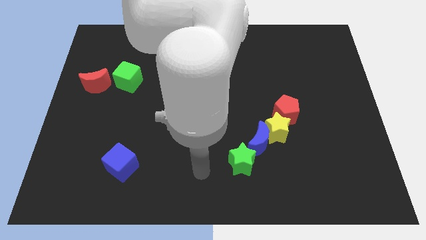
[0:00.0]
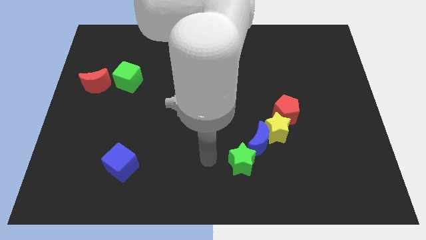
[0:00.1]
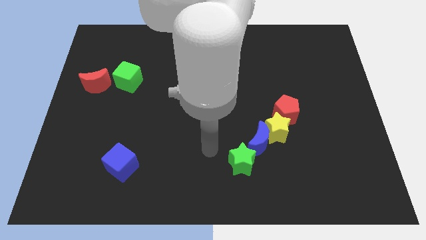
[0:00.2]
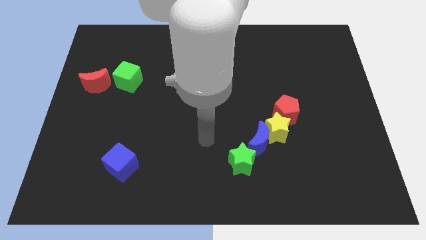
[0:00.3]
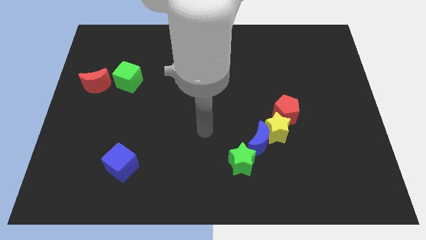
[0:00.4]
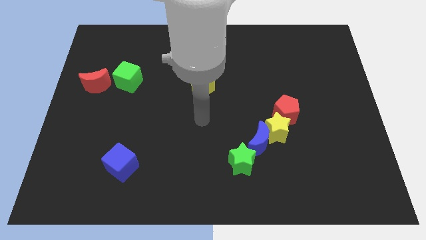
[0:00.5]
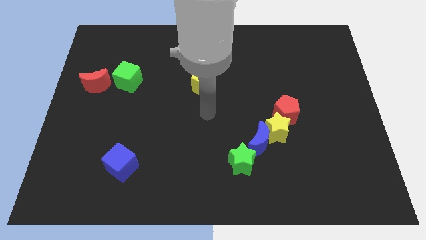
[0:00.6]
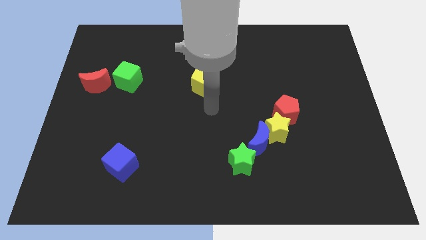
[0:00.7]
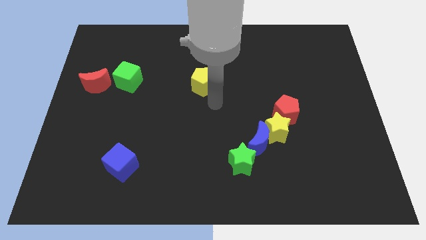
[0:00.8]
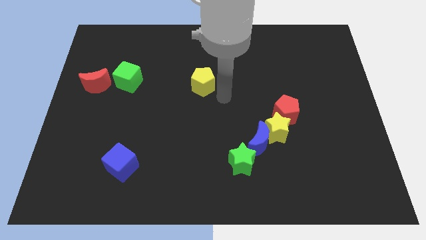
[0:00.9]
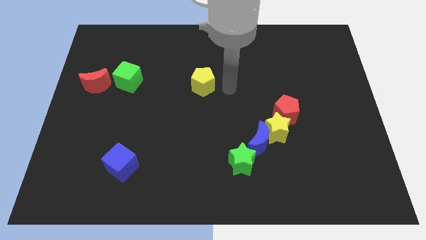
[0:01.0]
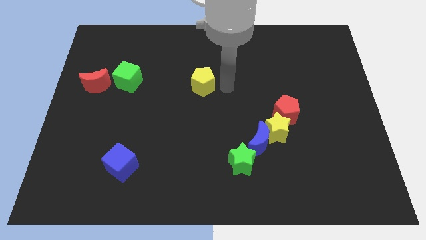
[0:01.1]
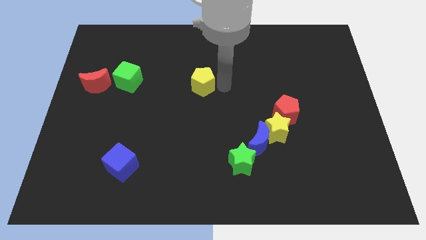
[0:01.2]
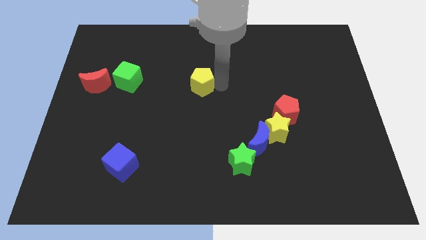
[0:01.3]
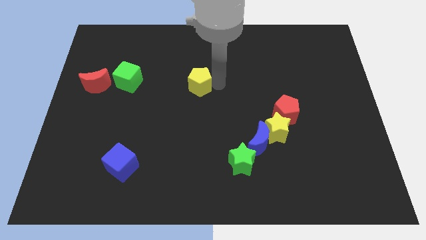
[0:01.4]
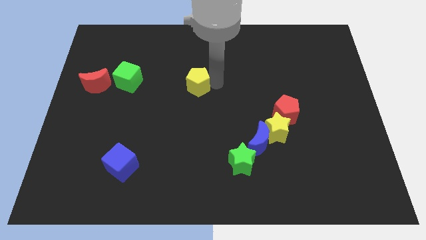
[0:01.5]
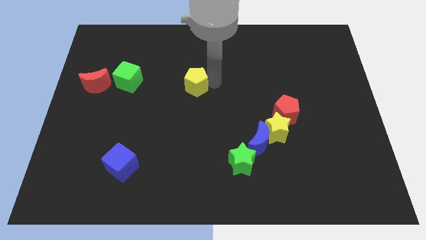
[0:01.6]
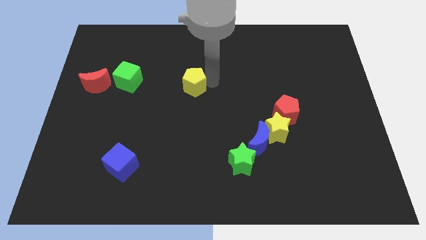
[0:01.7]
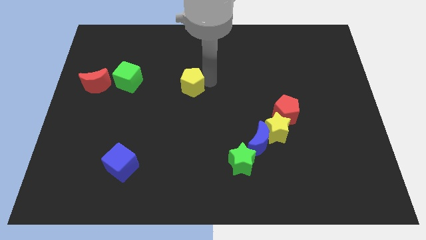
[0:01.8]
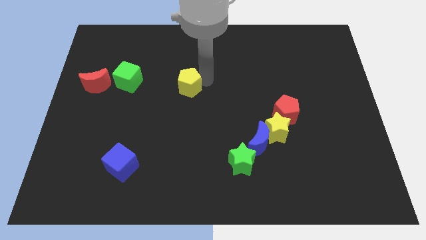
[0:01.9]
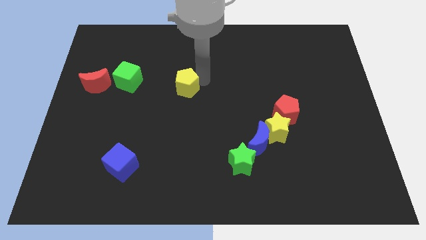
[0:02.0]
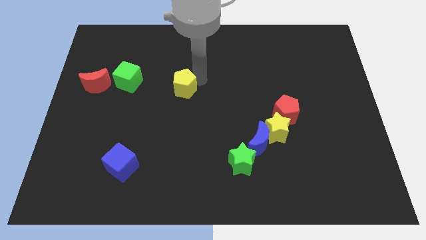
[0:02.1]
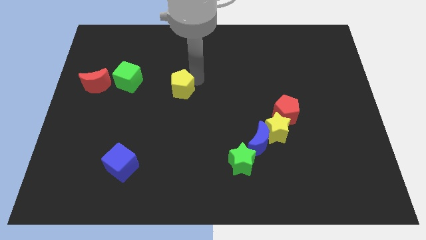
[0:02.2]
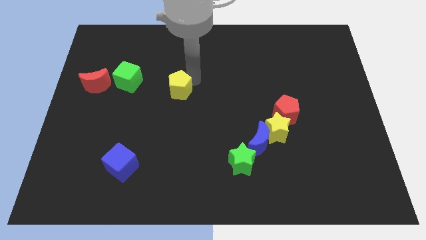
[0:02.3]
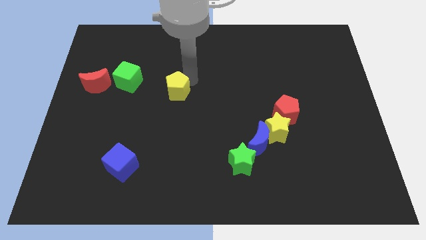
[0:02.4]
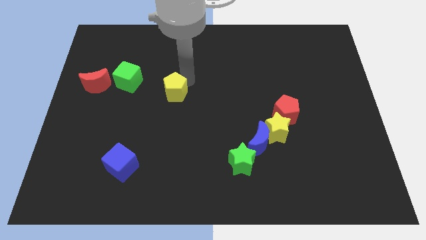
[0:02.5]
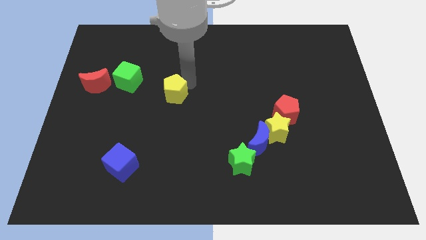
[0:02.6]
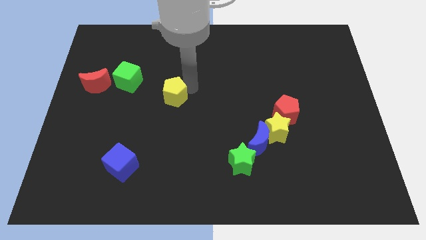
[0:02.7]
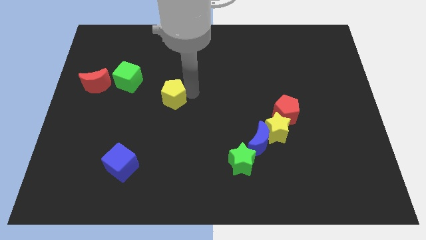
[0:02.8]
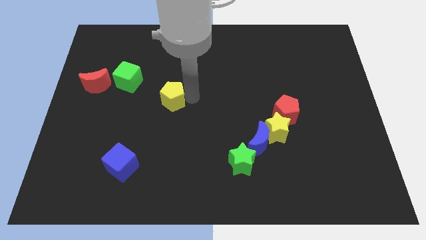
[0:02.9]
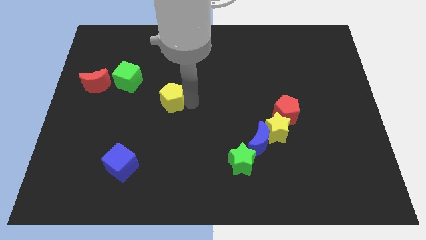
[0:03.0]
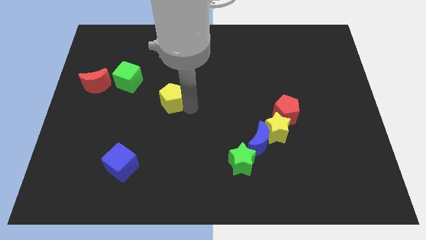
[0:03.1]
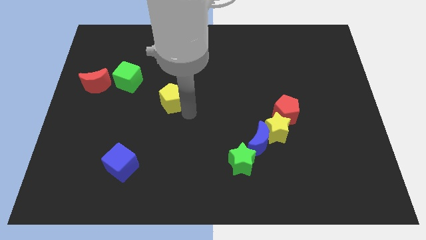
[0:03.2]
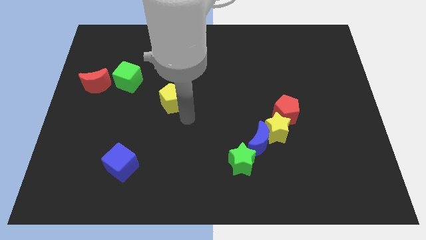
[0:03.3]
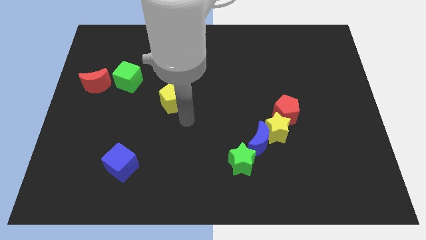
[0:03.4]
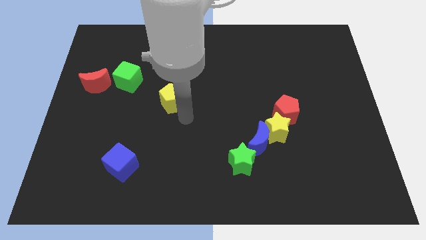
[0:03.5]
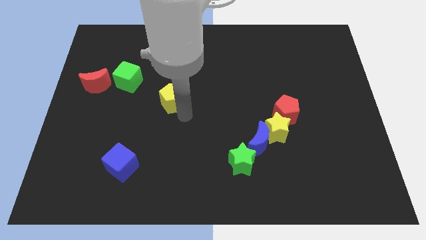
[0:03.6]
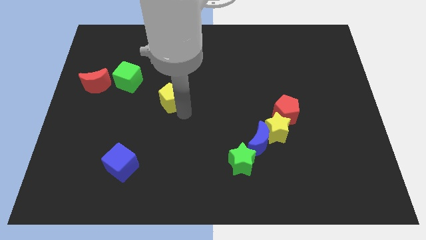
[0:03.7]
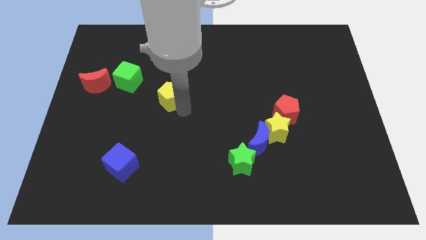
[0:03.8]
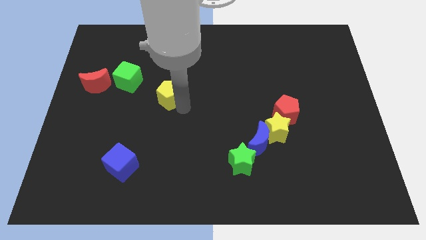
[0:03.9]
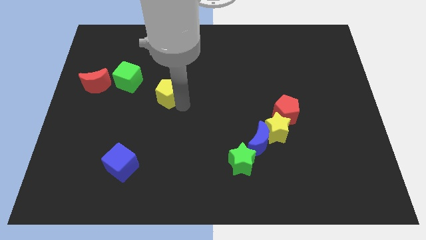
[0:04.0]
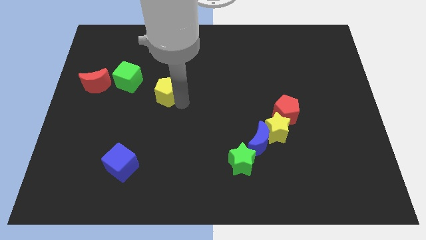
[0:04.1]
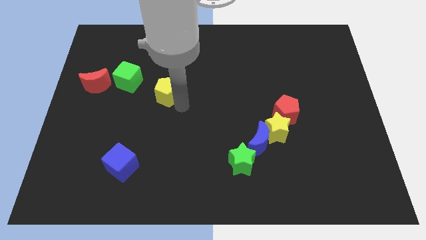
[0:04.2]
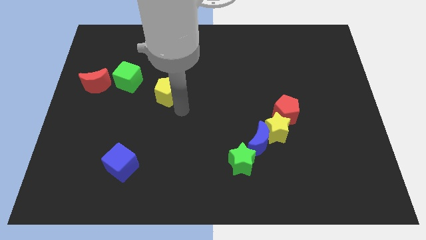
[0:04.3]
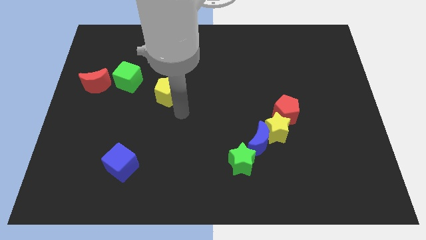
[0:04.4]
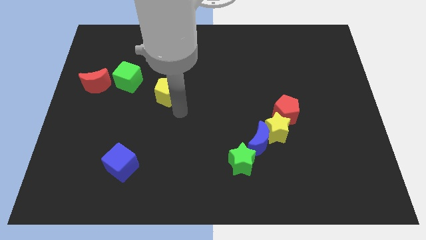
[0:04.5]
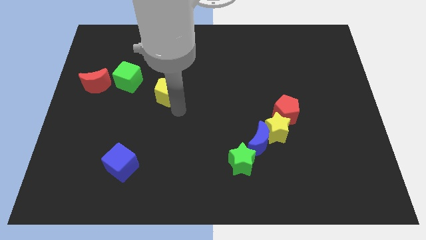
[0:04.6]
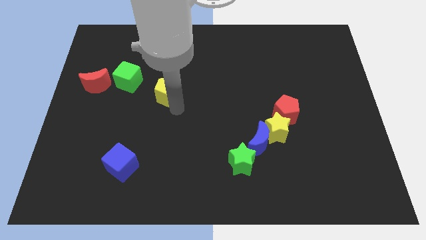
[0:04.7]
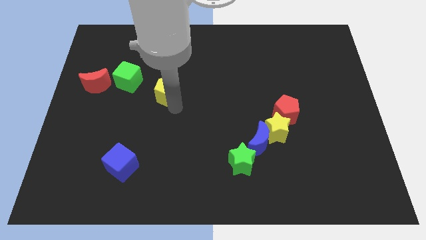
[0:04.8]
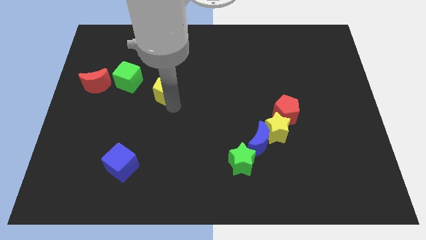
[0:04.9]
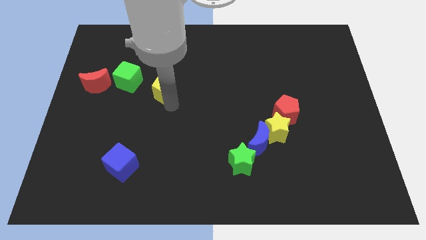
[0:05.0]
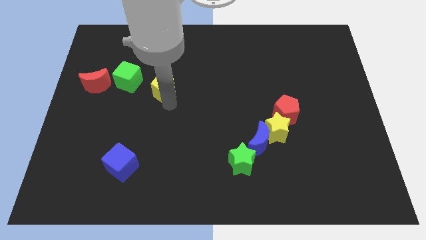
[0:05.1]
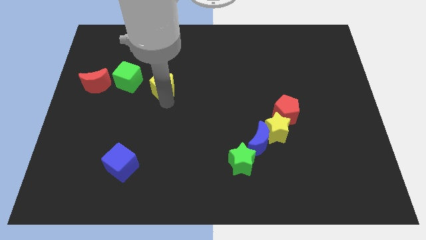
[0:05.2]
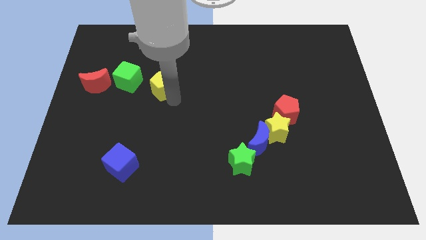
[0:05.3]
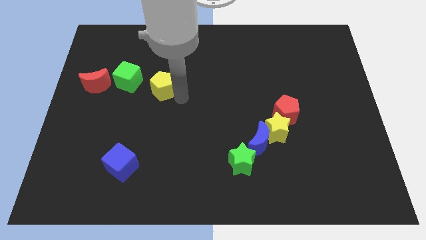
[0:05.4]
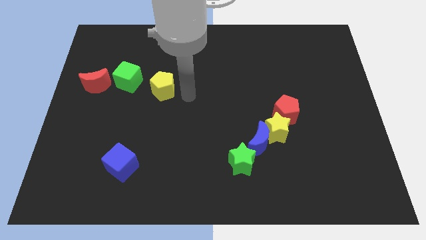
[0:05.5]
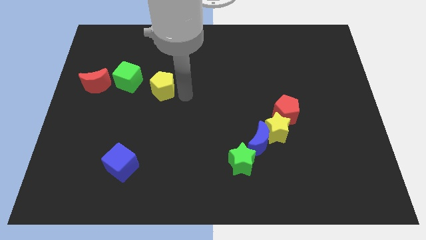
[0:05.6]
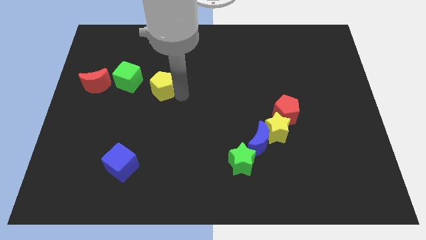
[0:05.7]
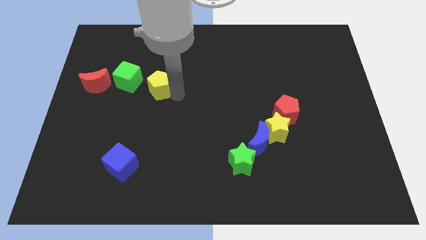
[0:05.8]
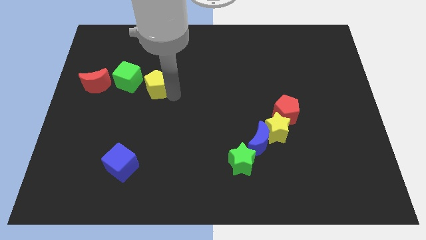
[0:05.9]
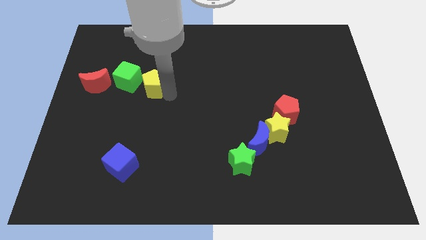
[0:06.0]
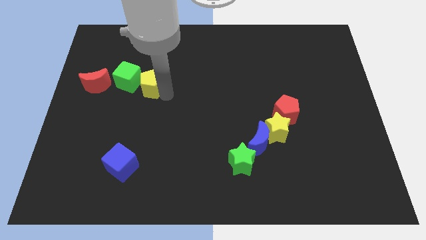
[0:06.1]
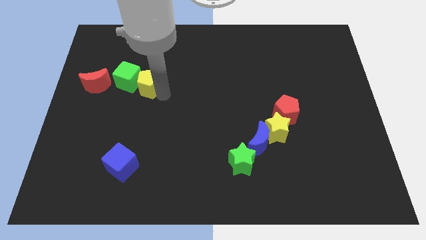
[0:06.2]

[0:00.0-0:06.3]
put the yellow pentagon to the green cube
